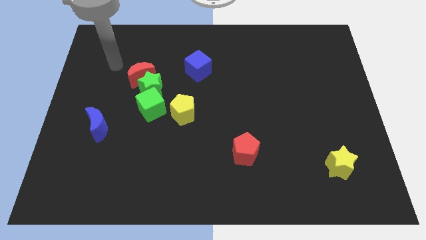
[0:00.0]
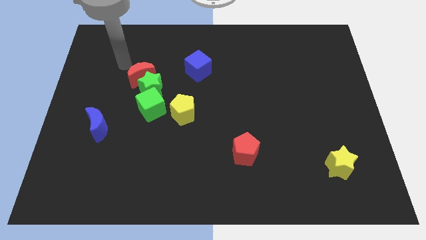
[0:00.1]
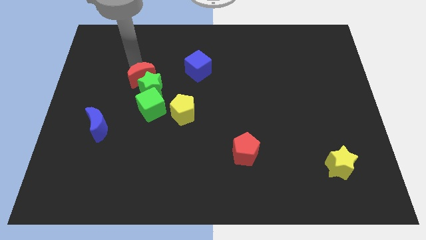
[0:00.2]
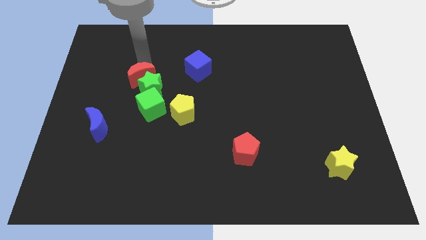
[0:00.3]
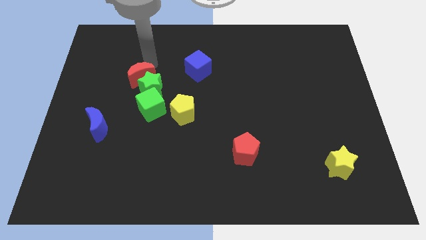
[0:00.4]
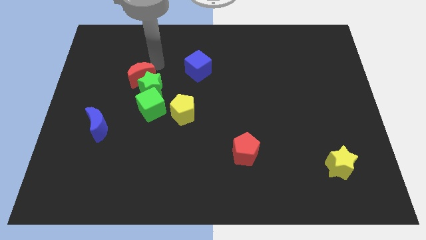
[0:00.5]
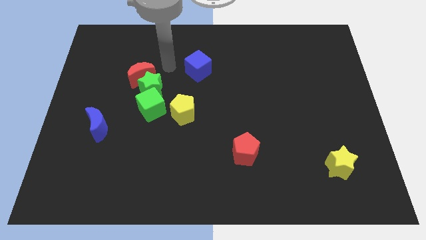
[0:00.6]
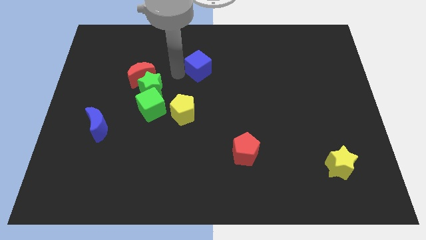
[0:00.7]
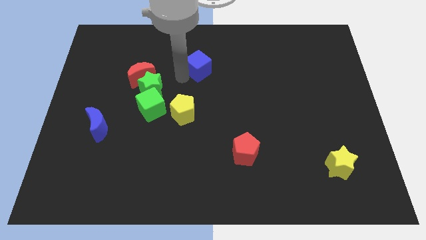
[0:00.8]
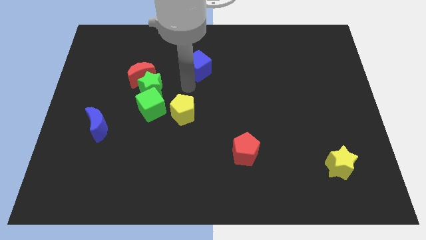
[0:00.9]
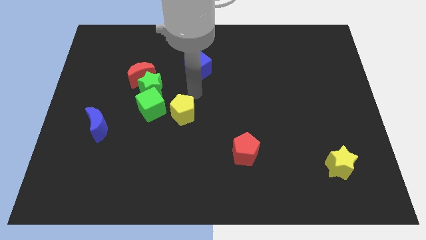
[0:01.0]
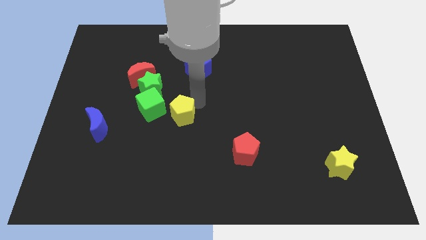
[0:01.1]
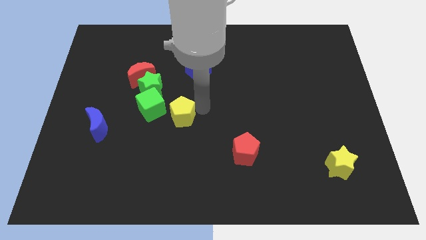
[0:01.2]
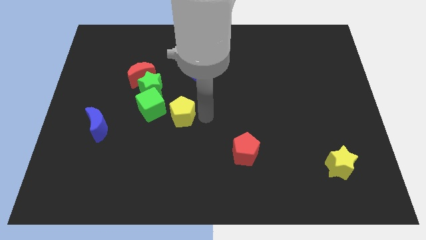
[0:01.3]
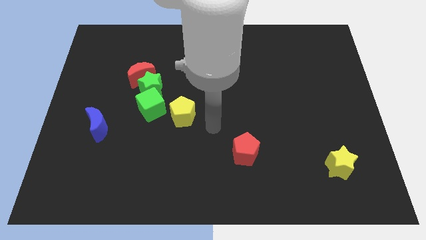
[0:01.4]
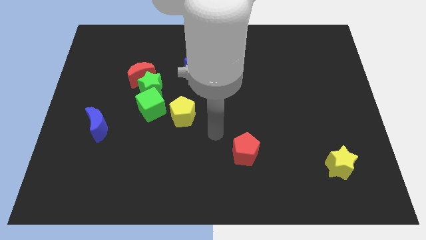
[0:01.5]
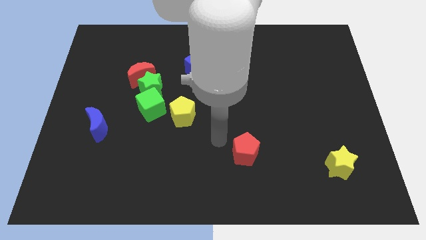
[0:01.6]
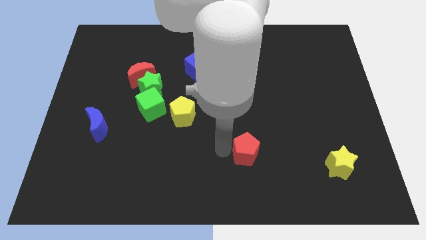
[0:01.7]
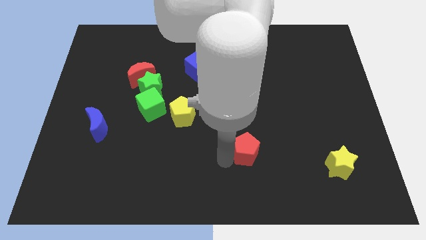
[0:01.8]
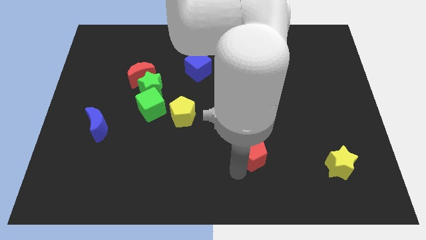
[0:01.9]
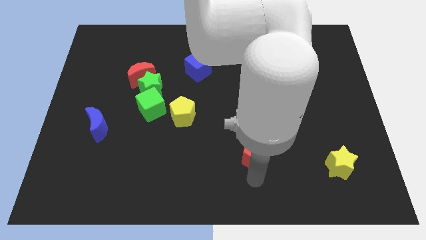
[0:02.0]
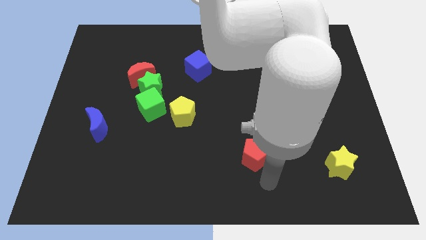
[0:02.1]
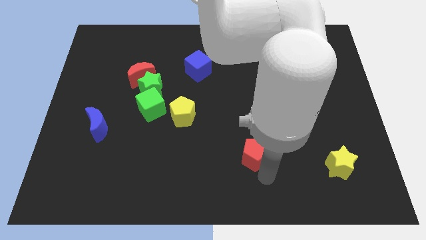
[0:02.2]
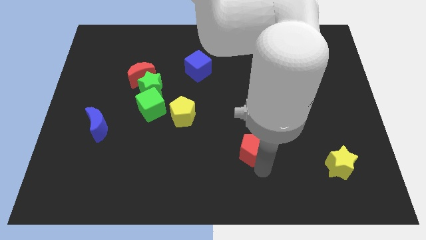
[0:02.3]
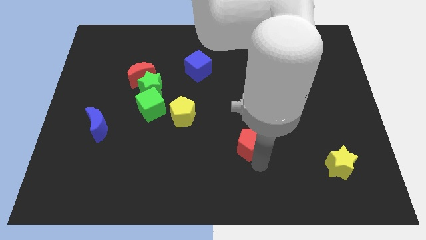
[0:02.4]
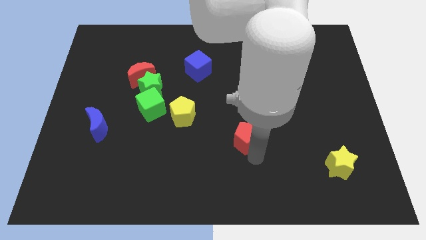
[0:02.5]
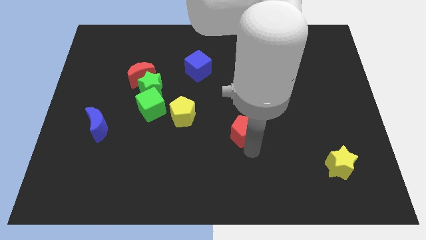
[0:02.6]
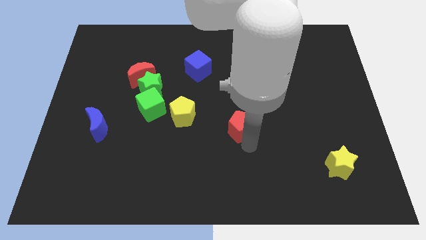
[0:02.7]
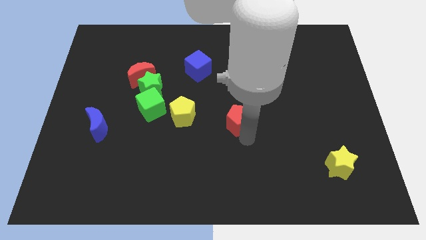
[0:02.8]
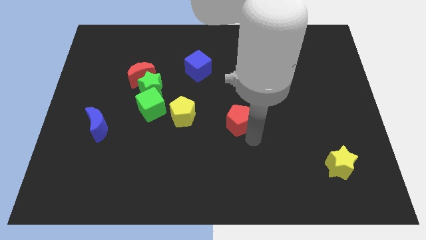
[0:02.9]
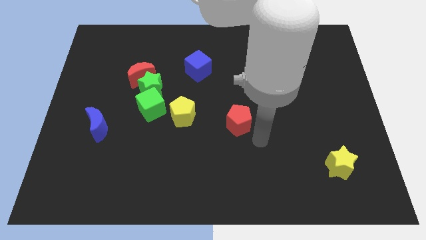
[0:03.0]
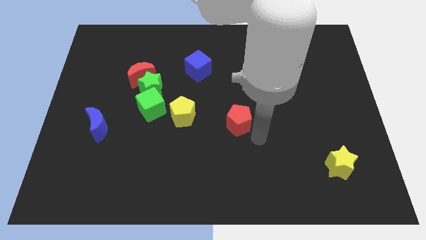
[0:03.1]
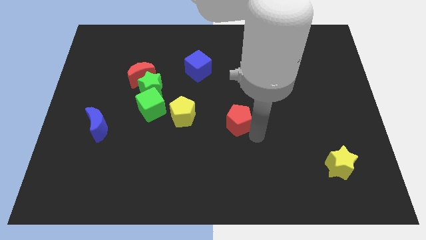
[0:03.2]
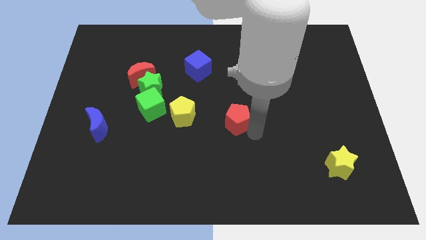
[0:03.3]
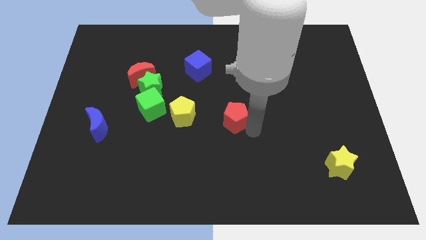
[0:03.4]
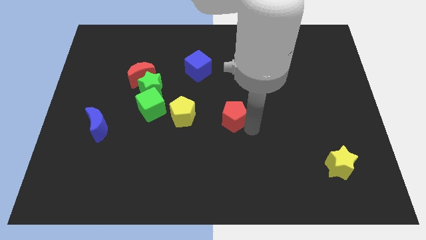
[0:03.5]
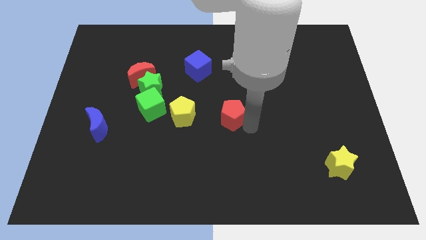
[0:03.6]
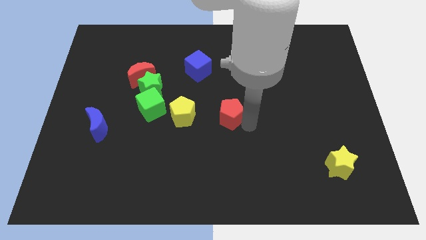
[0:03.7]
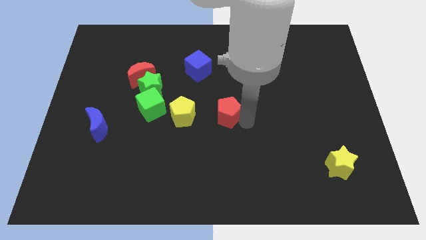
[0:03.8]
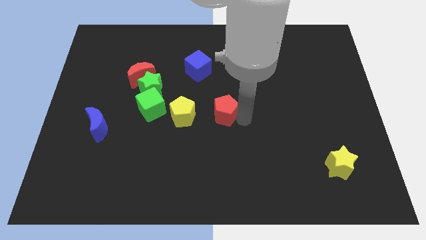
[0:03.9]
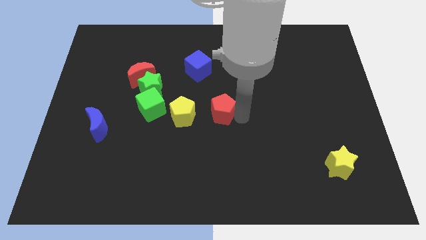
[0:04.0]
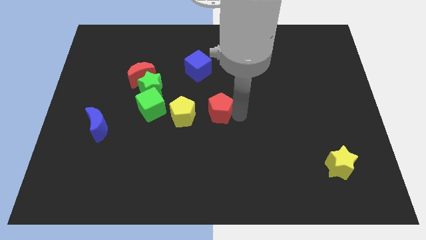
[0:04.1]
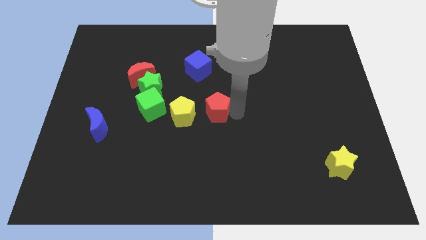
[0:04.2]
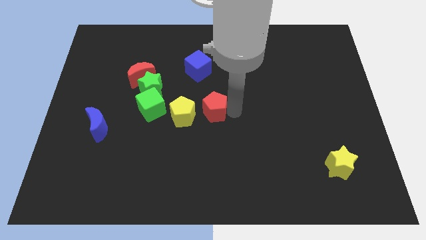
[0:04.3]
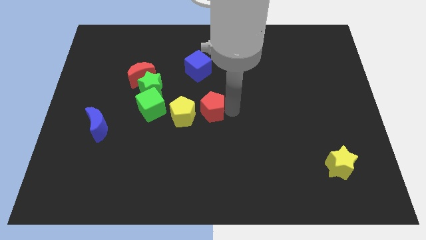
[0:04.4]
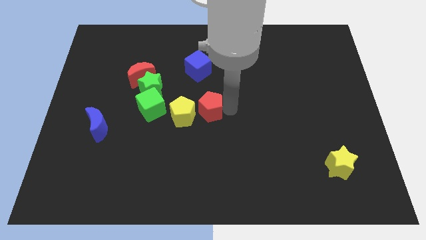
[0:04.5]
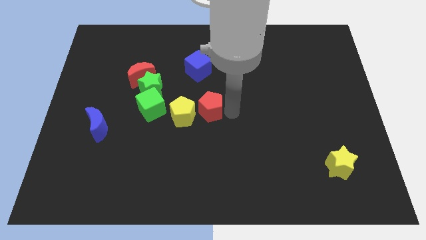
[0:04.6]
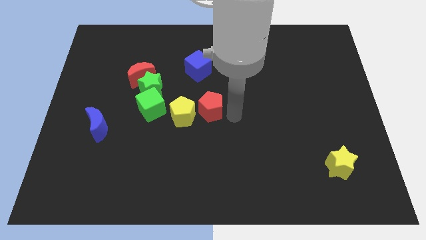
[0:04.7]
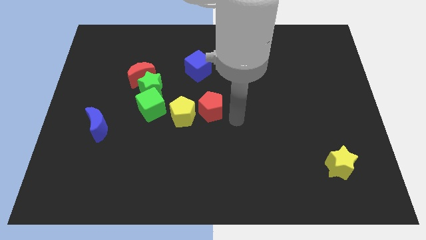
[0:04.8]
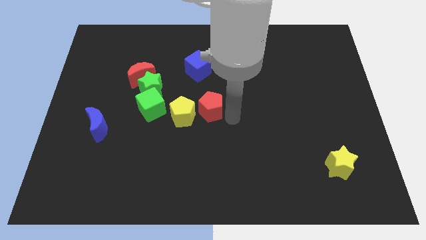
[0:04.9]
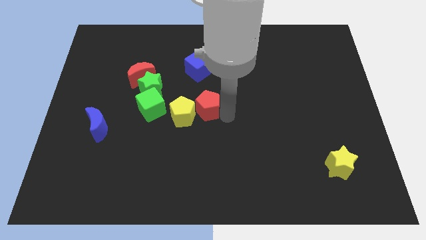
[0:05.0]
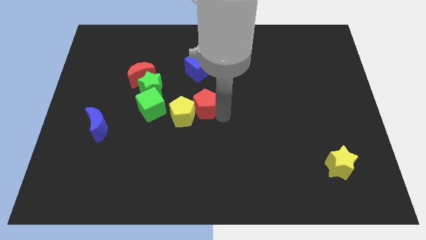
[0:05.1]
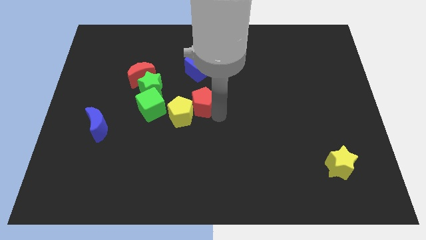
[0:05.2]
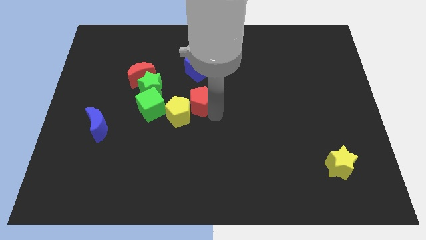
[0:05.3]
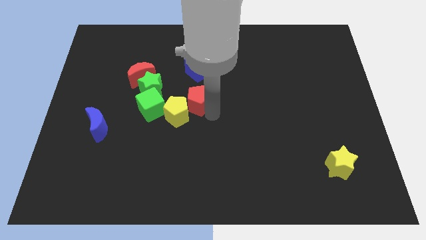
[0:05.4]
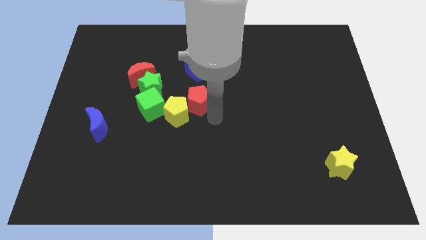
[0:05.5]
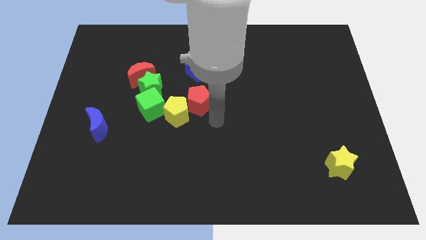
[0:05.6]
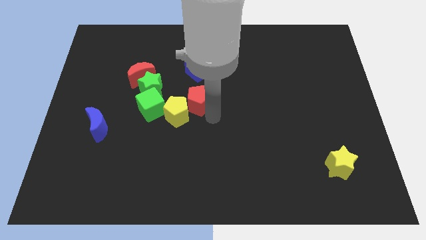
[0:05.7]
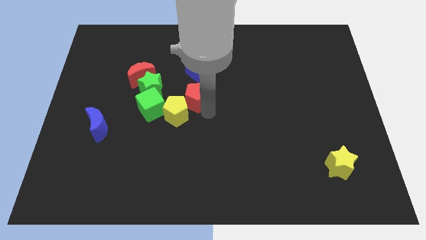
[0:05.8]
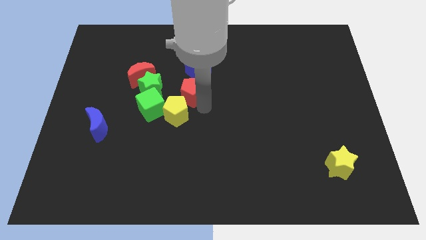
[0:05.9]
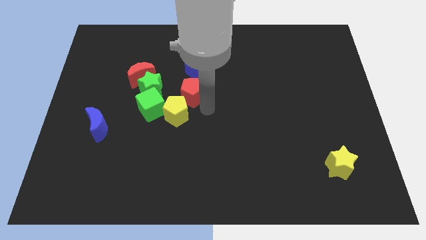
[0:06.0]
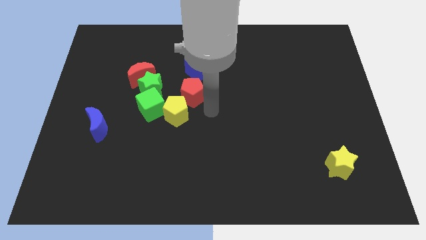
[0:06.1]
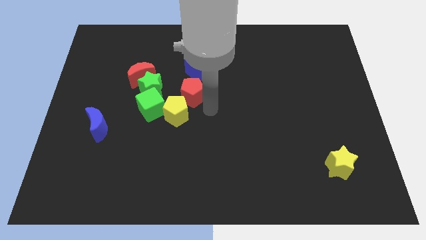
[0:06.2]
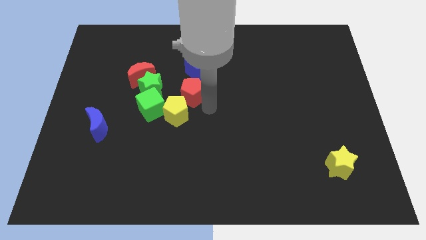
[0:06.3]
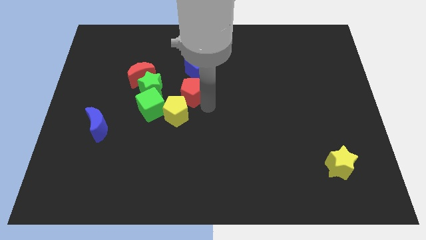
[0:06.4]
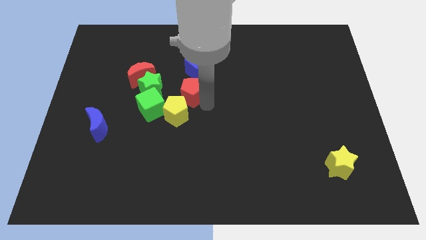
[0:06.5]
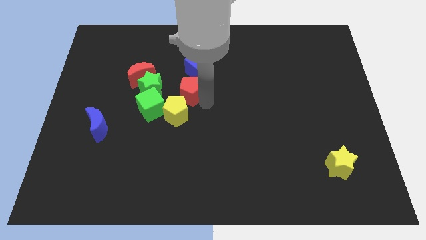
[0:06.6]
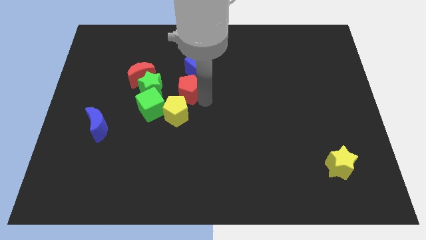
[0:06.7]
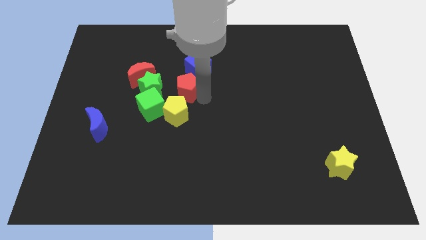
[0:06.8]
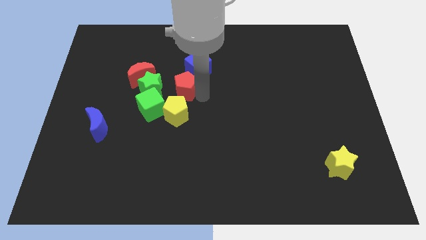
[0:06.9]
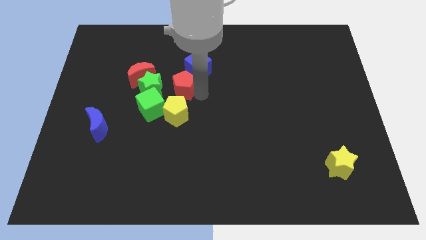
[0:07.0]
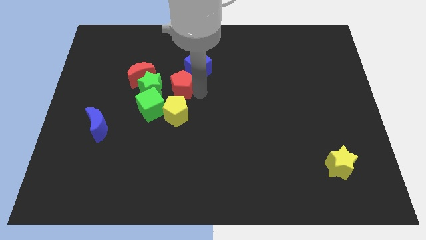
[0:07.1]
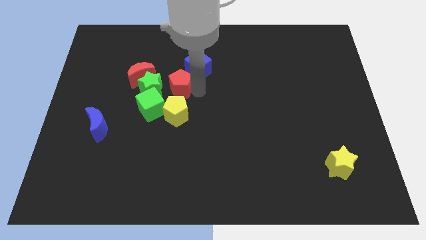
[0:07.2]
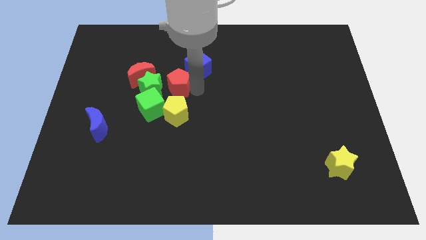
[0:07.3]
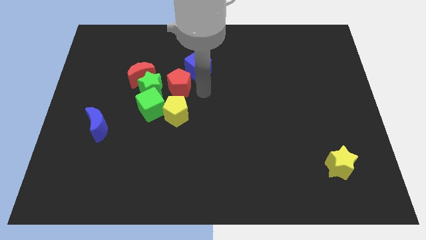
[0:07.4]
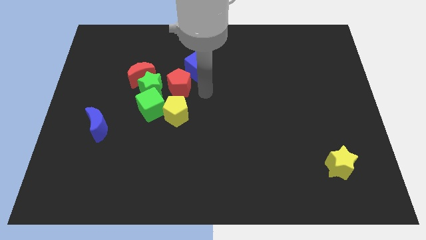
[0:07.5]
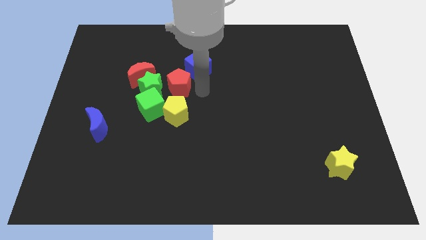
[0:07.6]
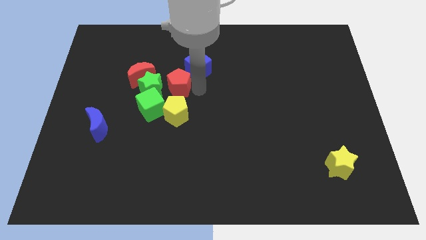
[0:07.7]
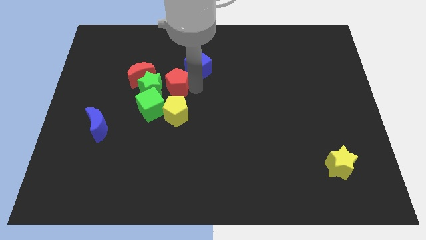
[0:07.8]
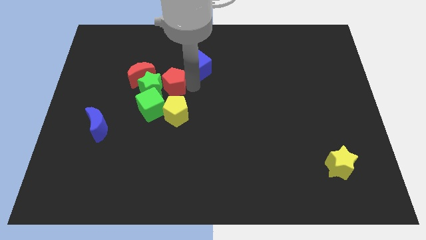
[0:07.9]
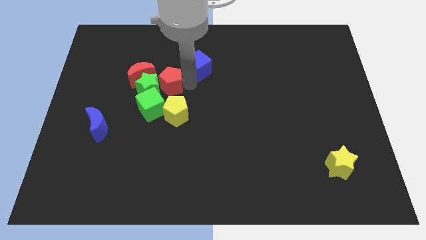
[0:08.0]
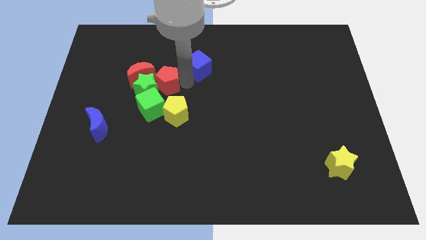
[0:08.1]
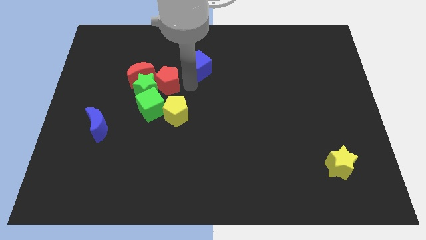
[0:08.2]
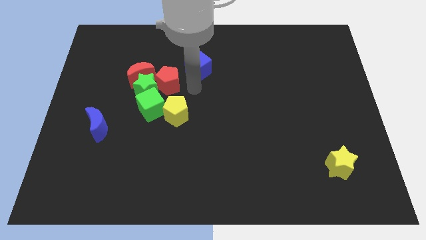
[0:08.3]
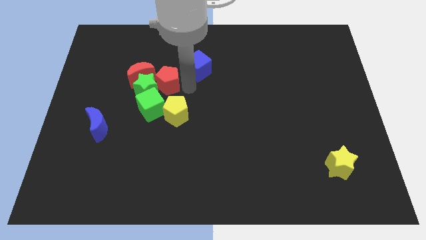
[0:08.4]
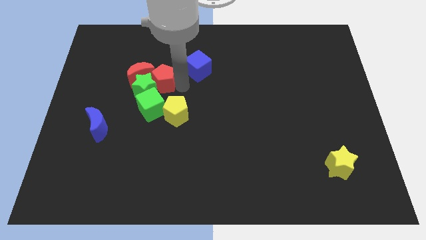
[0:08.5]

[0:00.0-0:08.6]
push the red pentagon close to the red moon
